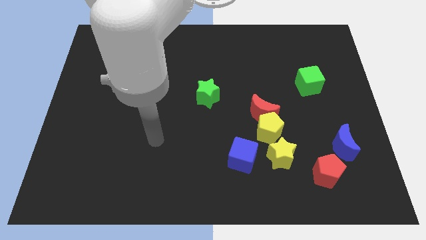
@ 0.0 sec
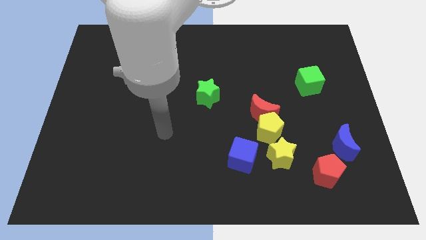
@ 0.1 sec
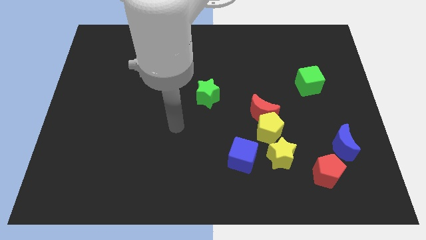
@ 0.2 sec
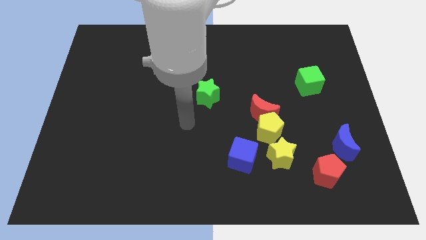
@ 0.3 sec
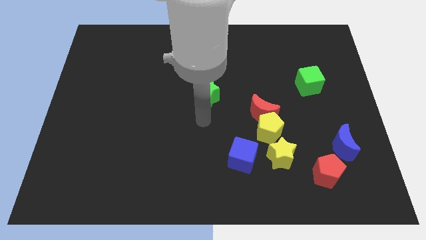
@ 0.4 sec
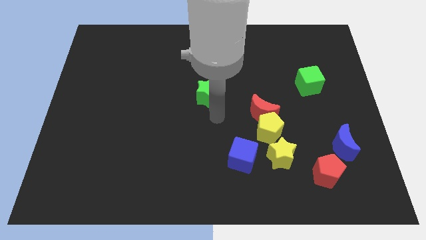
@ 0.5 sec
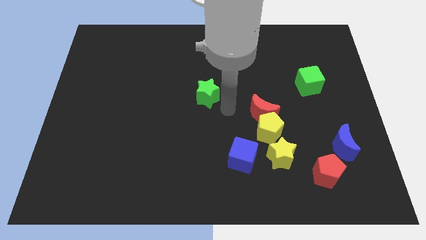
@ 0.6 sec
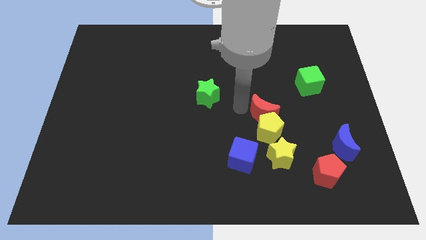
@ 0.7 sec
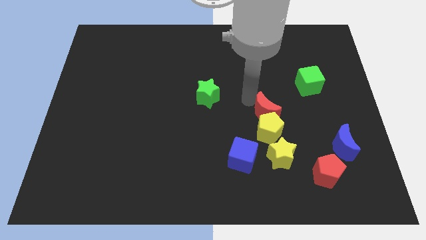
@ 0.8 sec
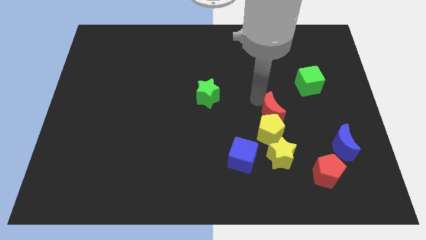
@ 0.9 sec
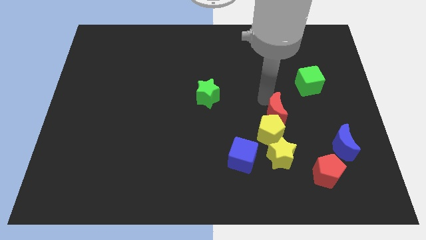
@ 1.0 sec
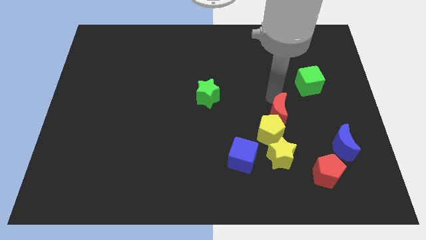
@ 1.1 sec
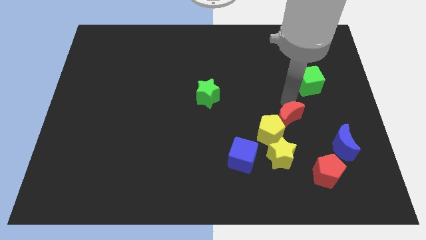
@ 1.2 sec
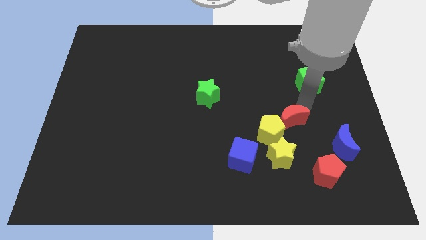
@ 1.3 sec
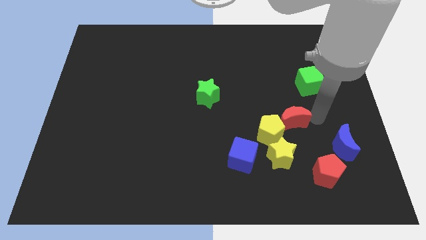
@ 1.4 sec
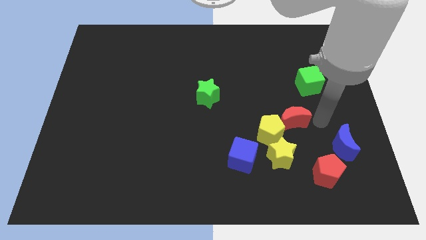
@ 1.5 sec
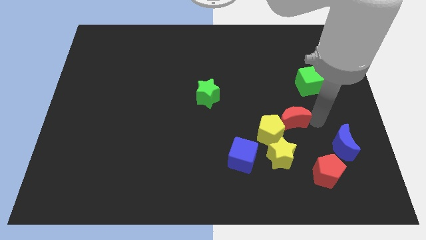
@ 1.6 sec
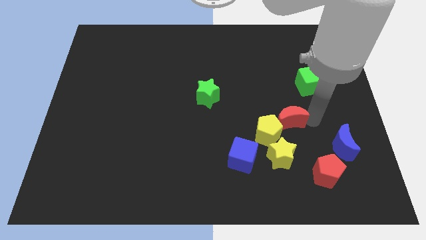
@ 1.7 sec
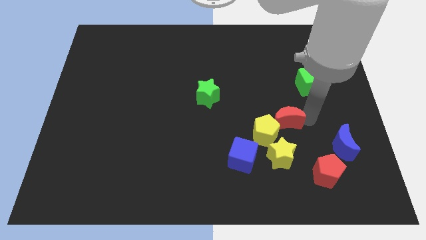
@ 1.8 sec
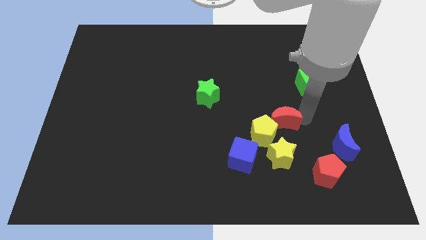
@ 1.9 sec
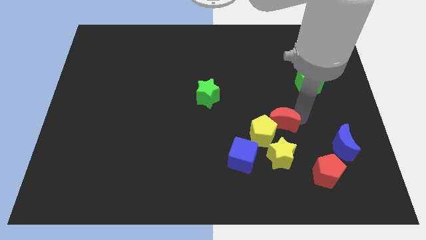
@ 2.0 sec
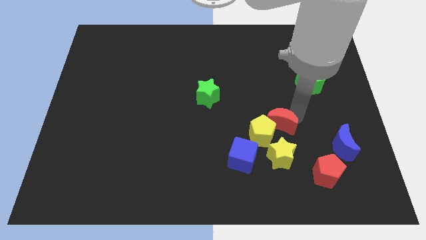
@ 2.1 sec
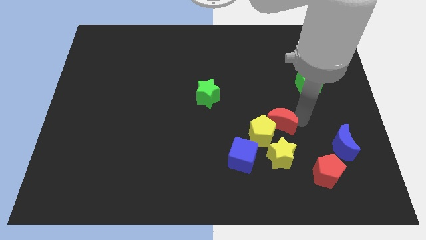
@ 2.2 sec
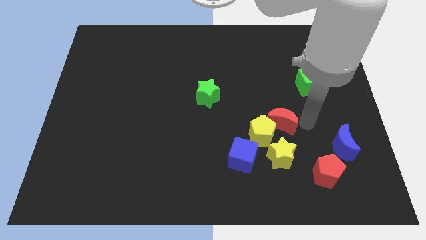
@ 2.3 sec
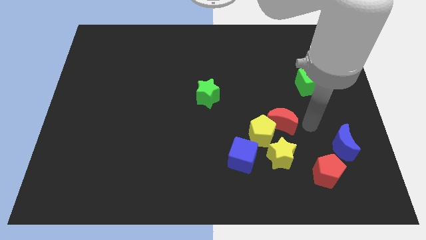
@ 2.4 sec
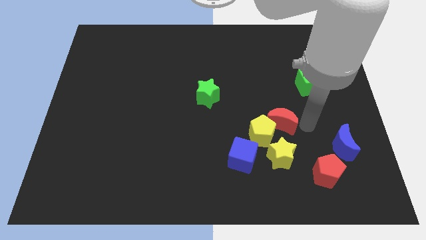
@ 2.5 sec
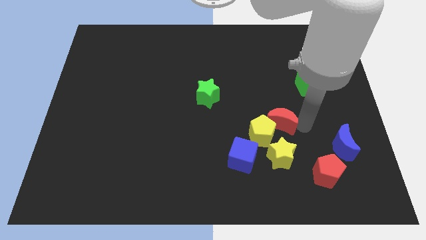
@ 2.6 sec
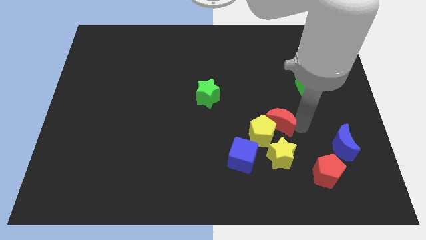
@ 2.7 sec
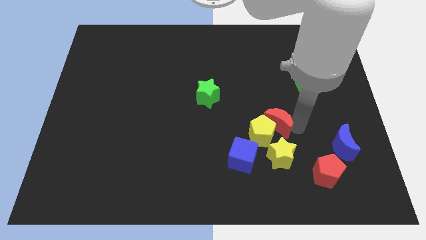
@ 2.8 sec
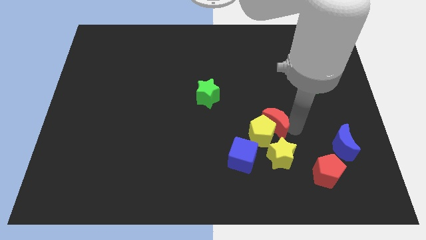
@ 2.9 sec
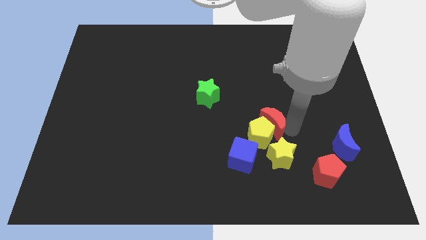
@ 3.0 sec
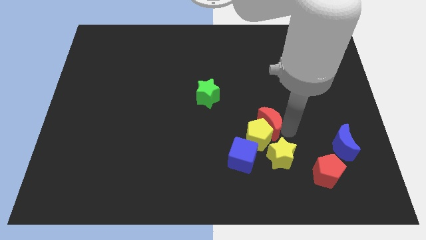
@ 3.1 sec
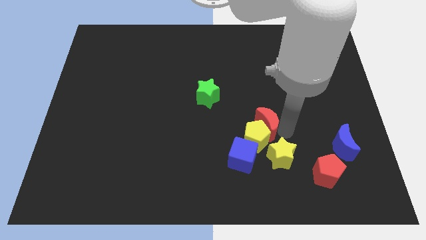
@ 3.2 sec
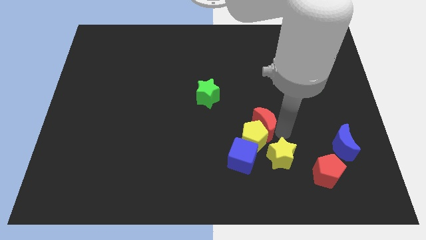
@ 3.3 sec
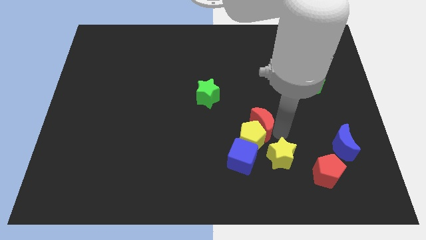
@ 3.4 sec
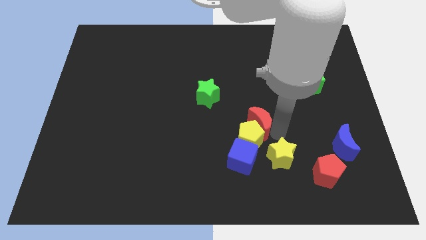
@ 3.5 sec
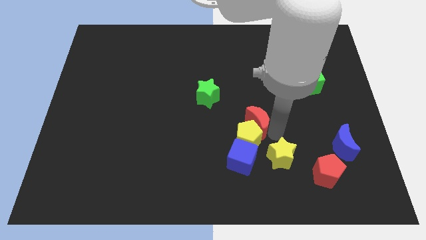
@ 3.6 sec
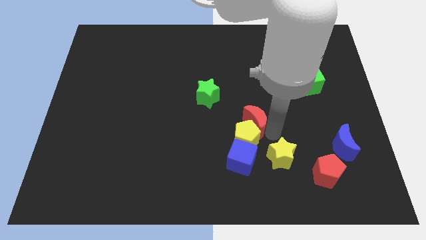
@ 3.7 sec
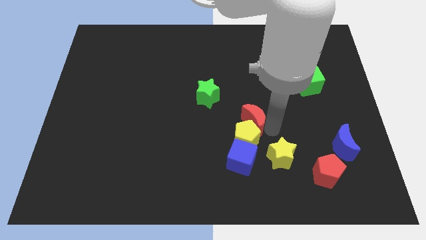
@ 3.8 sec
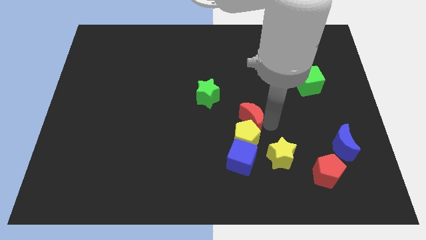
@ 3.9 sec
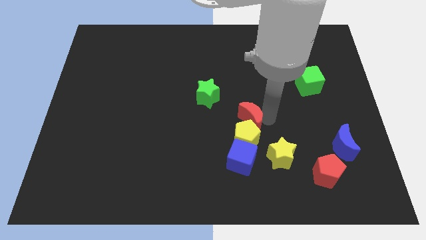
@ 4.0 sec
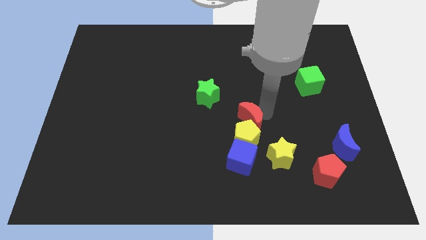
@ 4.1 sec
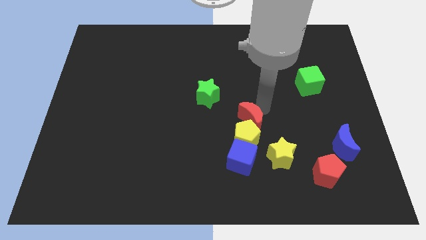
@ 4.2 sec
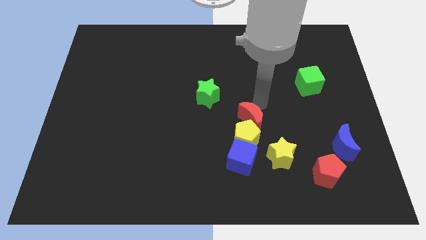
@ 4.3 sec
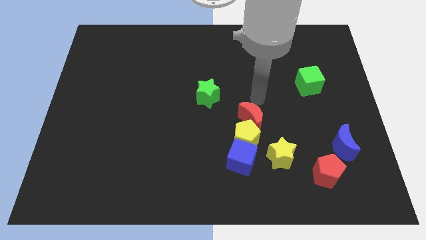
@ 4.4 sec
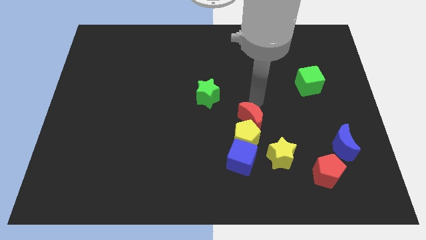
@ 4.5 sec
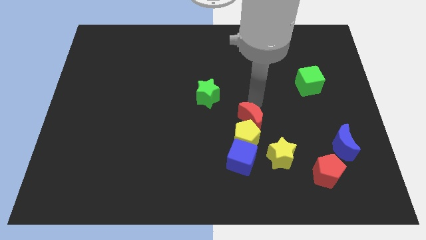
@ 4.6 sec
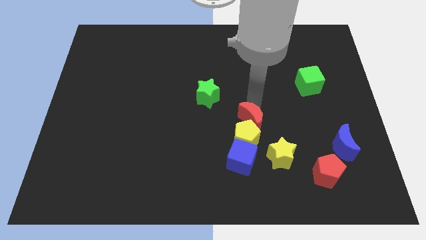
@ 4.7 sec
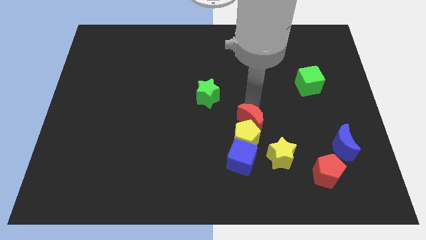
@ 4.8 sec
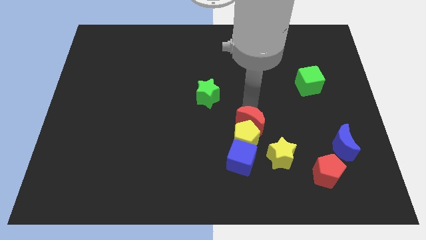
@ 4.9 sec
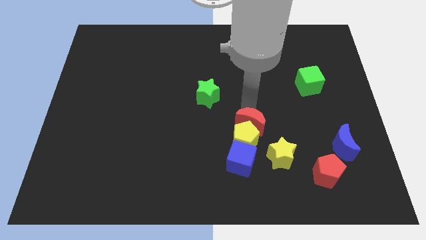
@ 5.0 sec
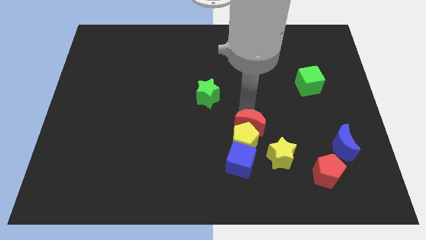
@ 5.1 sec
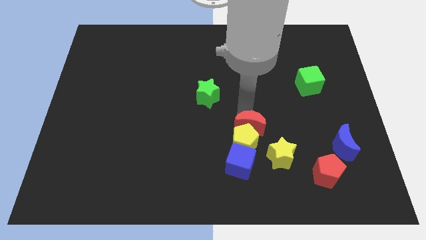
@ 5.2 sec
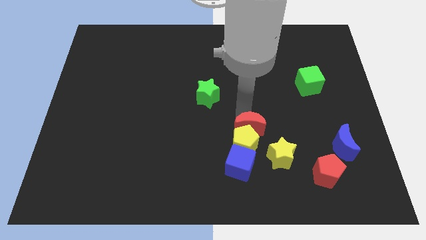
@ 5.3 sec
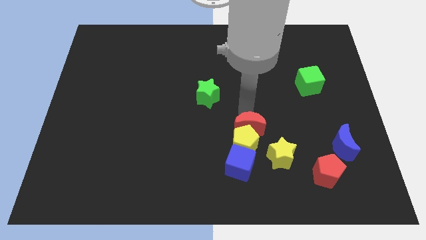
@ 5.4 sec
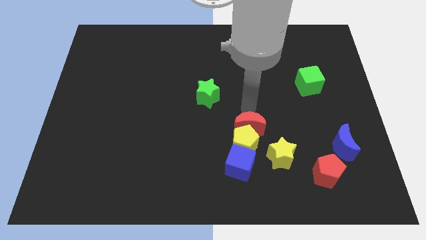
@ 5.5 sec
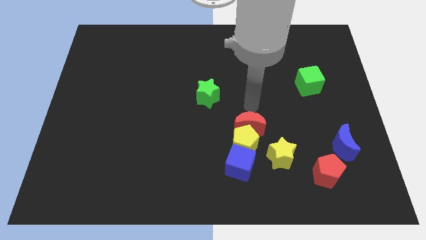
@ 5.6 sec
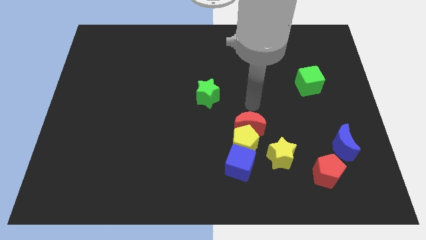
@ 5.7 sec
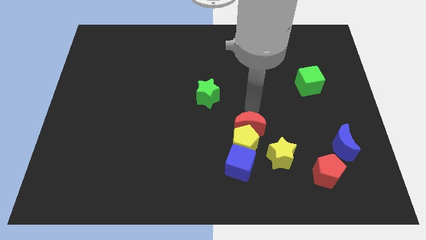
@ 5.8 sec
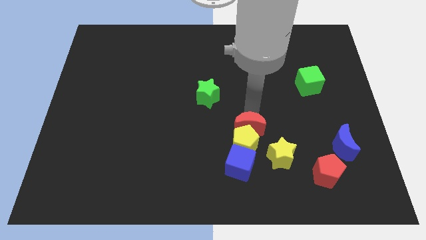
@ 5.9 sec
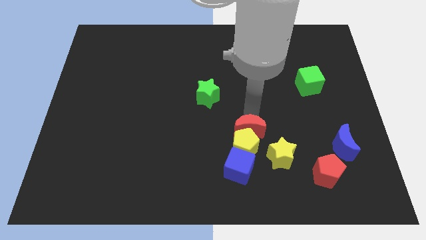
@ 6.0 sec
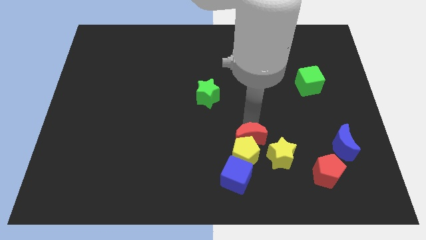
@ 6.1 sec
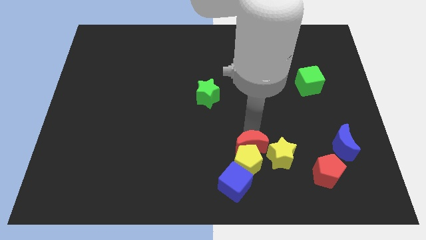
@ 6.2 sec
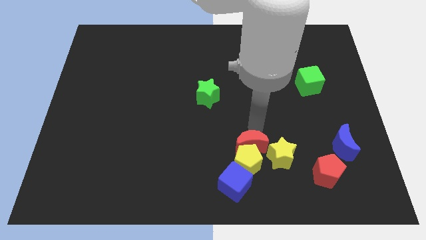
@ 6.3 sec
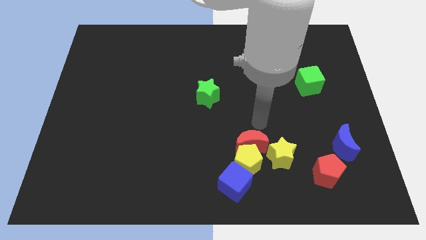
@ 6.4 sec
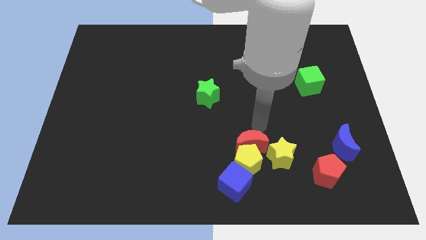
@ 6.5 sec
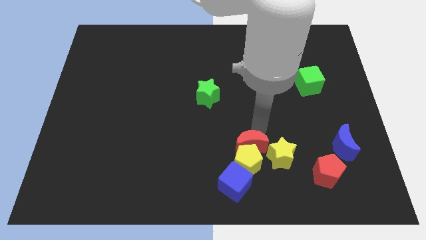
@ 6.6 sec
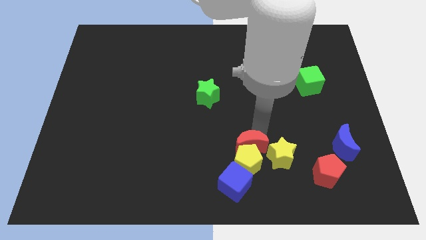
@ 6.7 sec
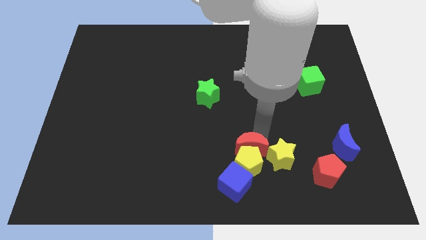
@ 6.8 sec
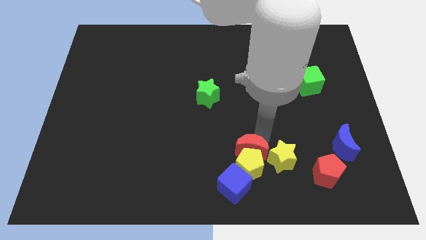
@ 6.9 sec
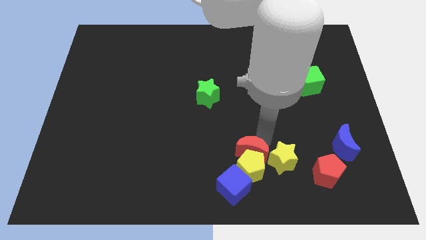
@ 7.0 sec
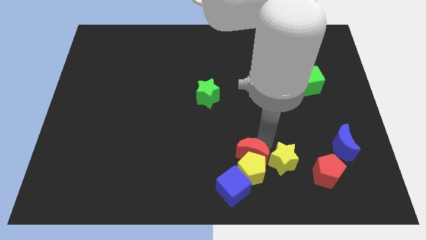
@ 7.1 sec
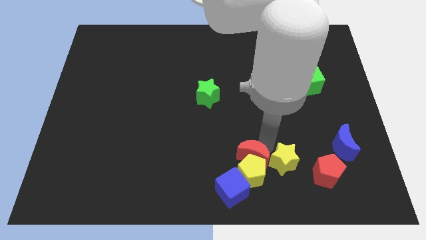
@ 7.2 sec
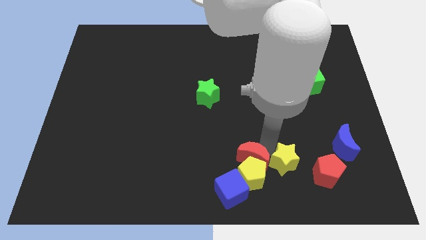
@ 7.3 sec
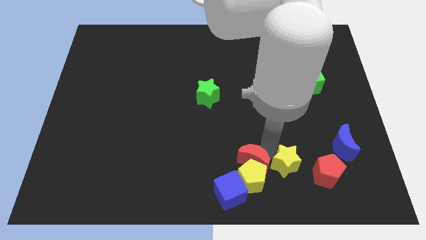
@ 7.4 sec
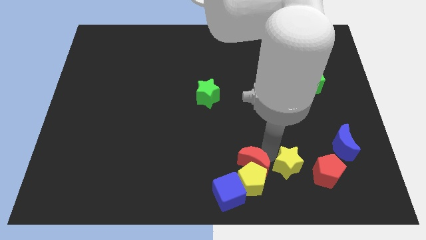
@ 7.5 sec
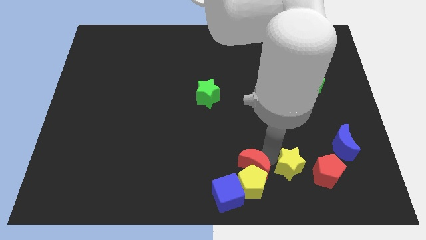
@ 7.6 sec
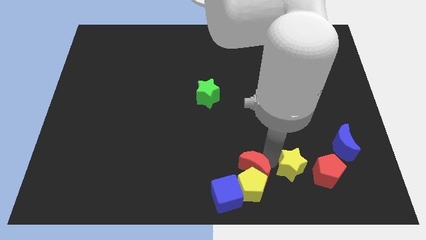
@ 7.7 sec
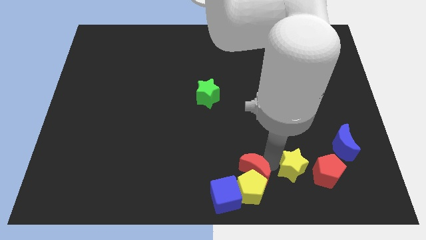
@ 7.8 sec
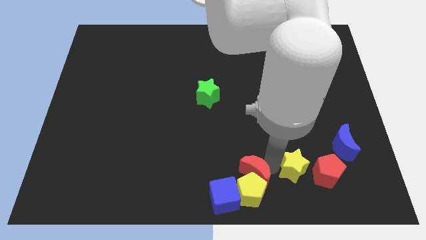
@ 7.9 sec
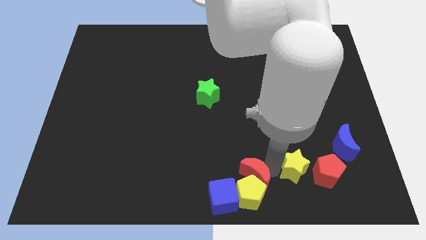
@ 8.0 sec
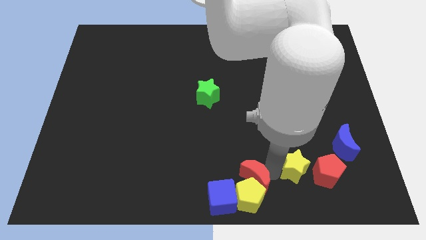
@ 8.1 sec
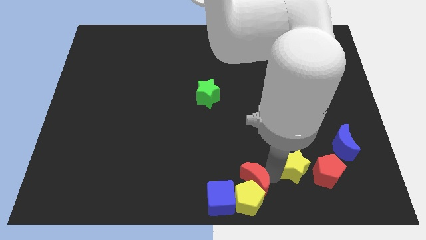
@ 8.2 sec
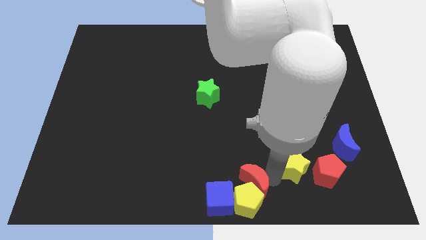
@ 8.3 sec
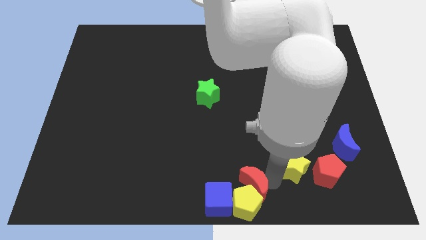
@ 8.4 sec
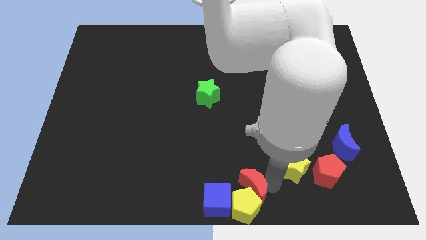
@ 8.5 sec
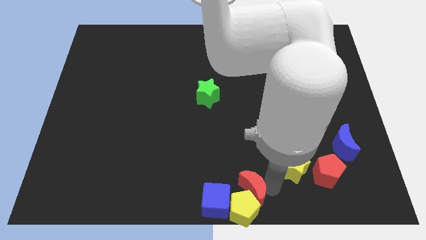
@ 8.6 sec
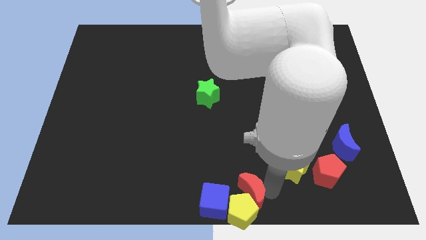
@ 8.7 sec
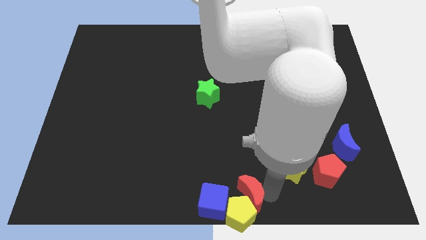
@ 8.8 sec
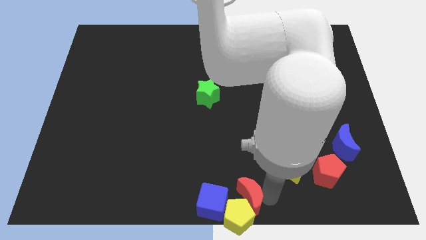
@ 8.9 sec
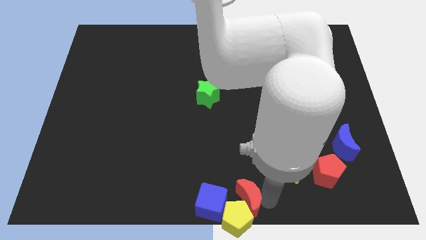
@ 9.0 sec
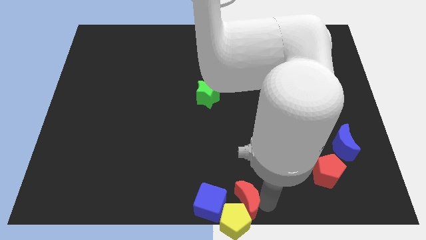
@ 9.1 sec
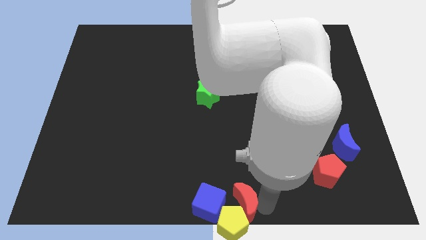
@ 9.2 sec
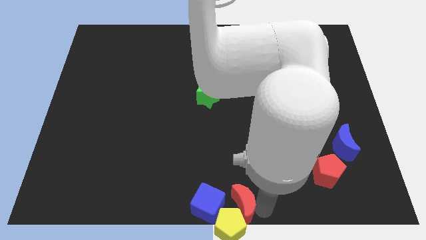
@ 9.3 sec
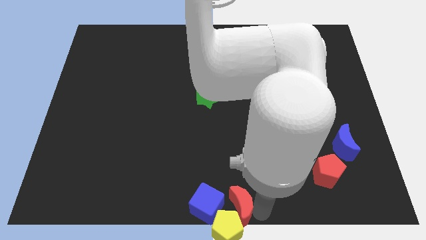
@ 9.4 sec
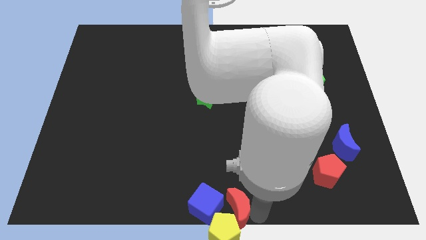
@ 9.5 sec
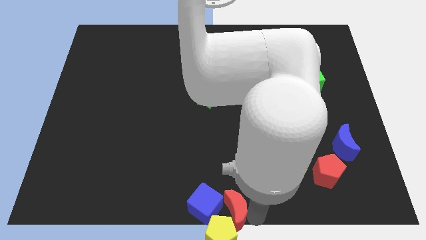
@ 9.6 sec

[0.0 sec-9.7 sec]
move the red moon to the blue cube
